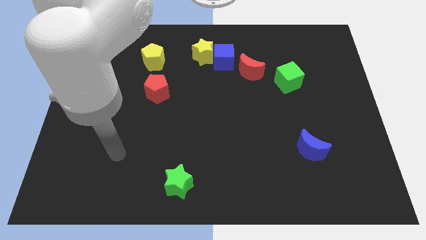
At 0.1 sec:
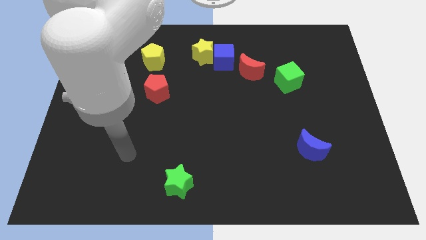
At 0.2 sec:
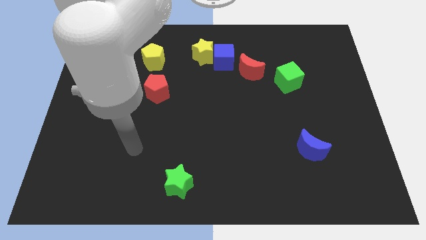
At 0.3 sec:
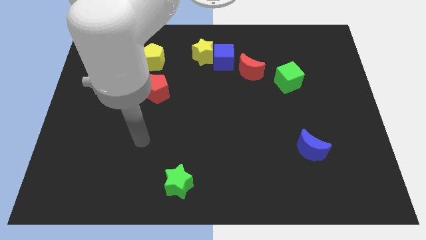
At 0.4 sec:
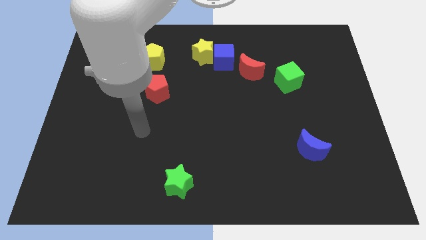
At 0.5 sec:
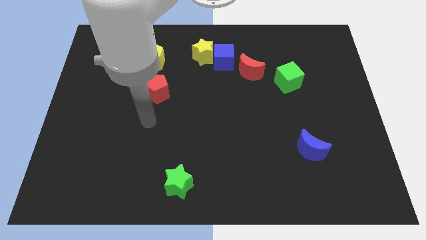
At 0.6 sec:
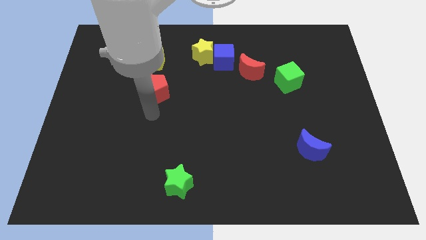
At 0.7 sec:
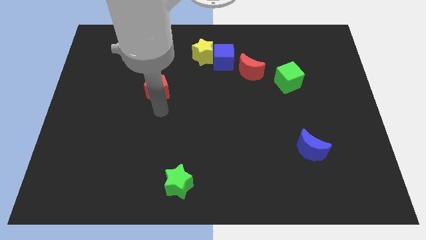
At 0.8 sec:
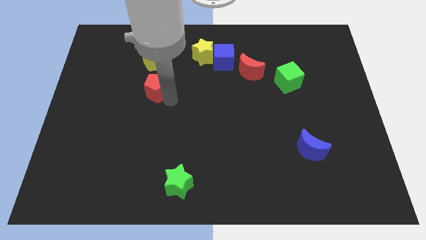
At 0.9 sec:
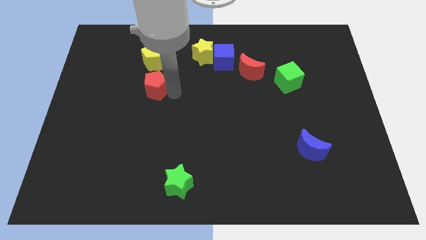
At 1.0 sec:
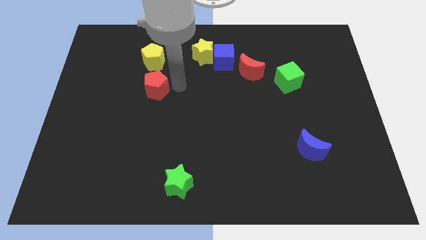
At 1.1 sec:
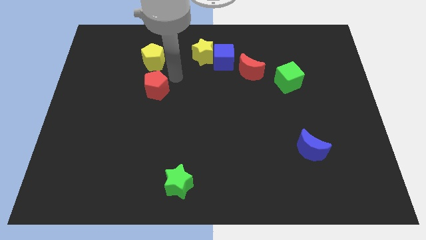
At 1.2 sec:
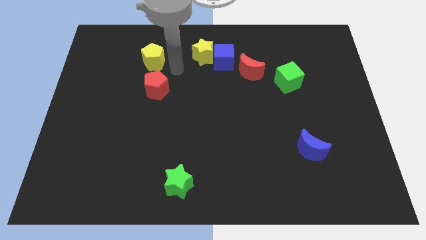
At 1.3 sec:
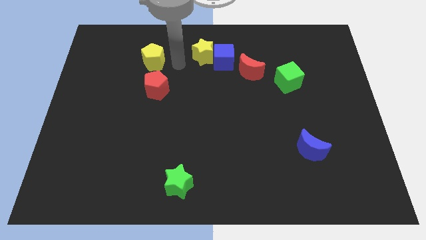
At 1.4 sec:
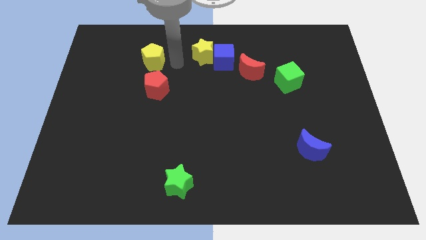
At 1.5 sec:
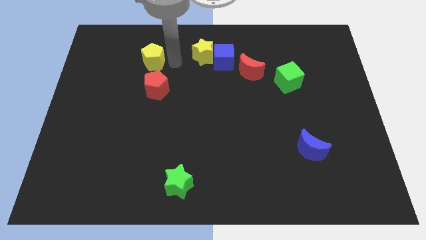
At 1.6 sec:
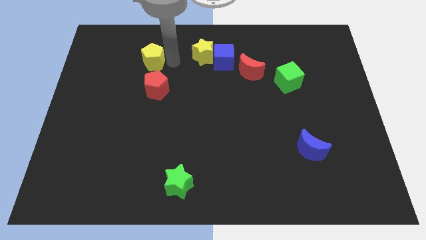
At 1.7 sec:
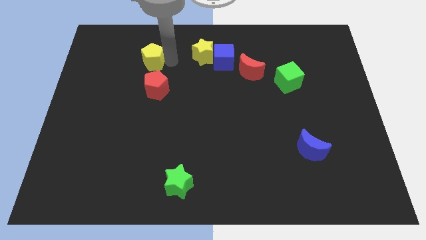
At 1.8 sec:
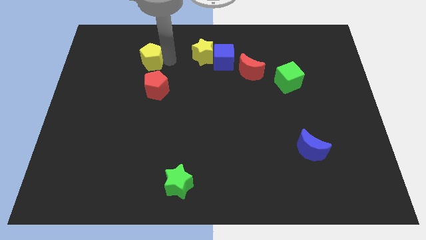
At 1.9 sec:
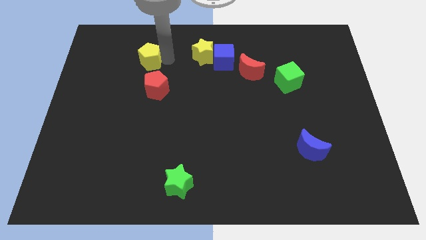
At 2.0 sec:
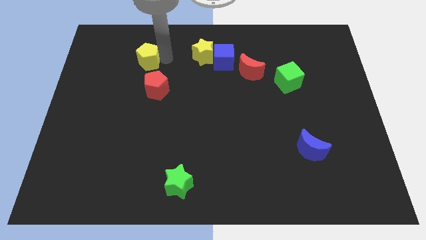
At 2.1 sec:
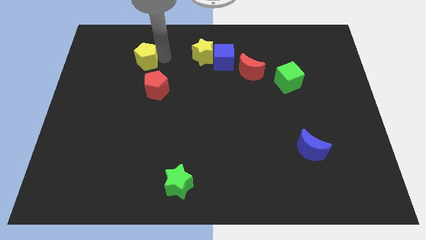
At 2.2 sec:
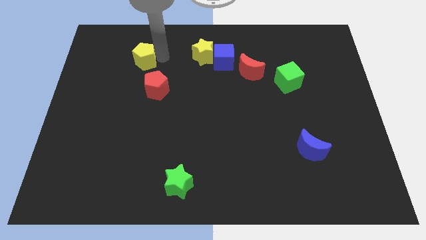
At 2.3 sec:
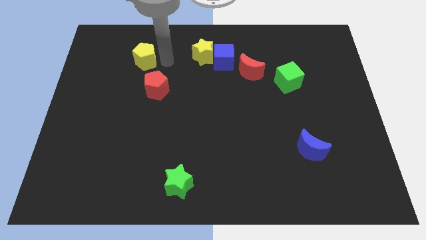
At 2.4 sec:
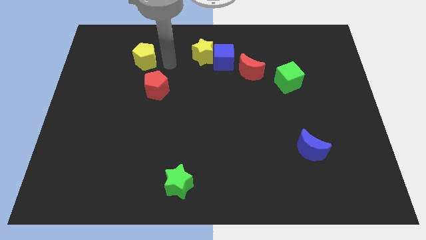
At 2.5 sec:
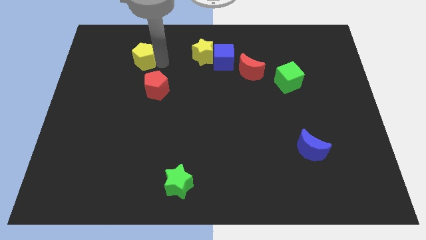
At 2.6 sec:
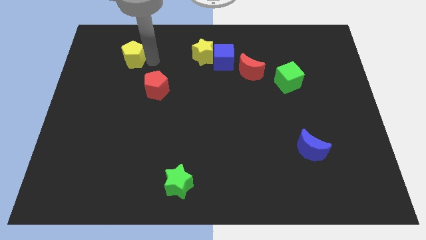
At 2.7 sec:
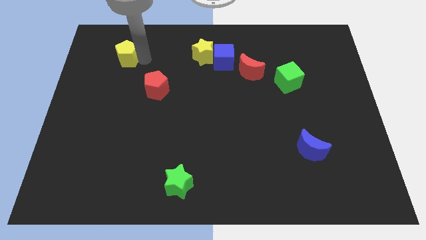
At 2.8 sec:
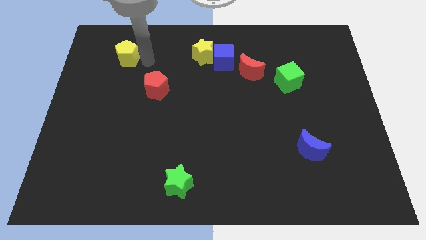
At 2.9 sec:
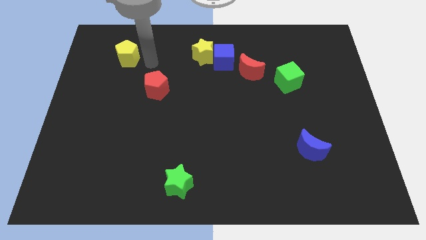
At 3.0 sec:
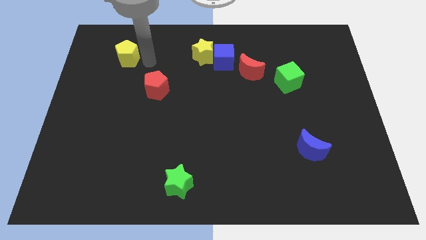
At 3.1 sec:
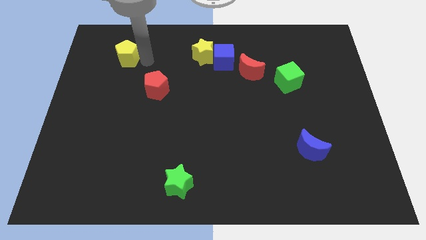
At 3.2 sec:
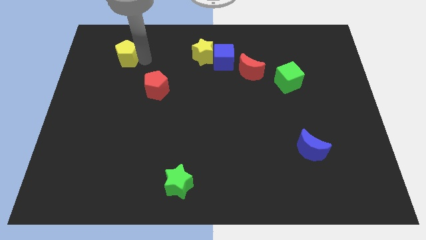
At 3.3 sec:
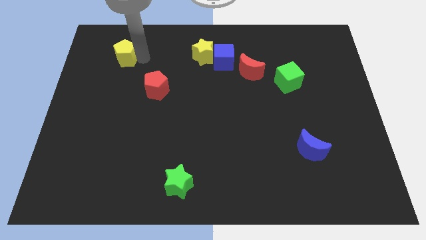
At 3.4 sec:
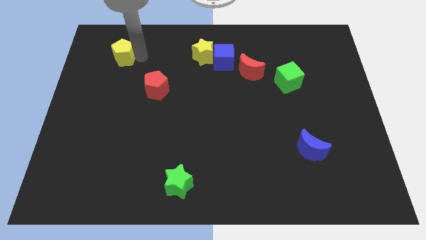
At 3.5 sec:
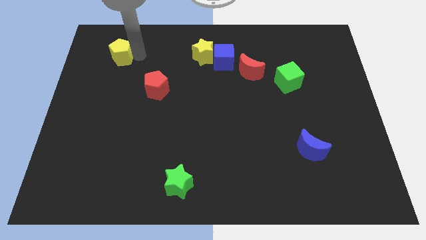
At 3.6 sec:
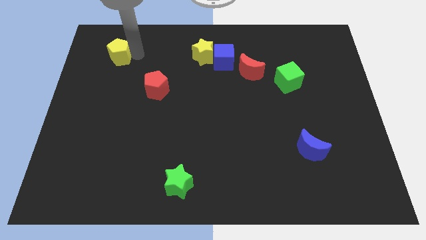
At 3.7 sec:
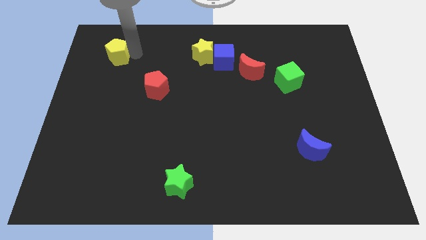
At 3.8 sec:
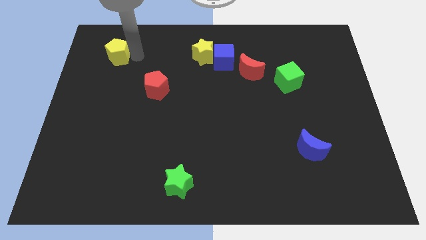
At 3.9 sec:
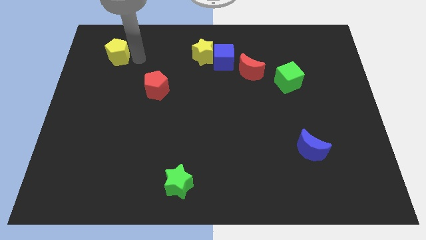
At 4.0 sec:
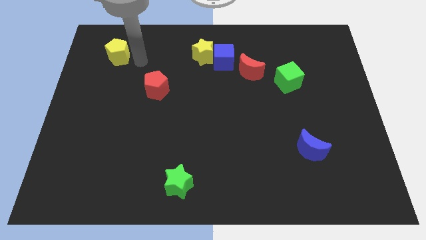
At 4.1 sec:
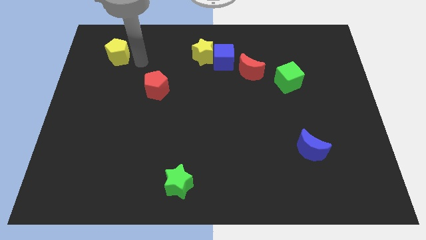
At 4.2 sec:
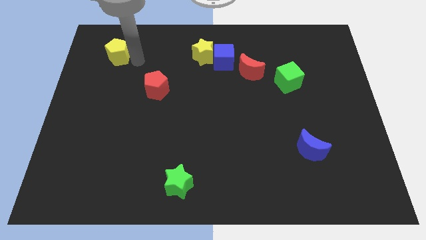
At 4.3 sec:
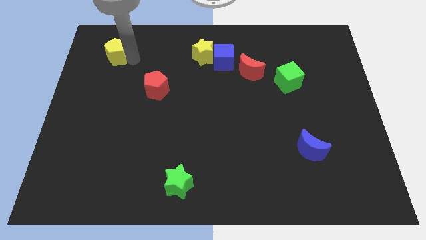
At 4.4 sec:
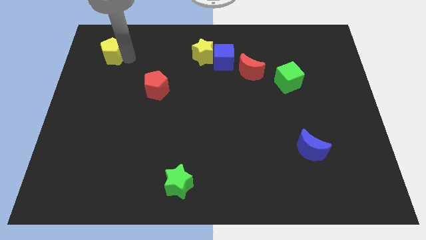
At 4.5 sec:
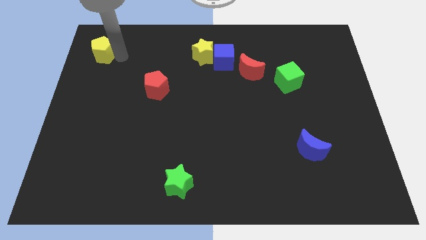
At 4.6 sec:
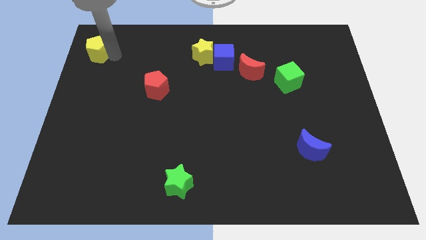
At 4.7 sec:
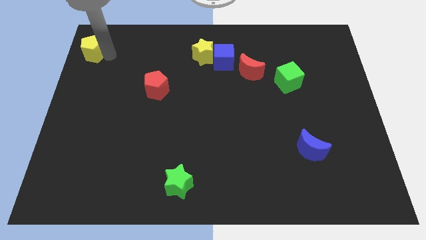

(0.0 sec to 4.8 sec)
move the yellow pentagon to the top left

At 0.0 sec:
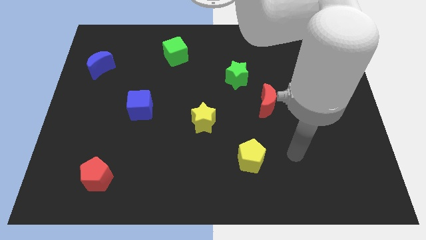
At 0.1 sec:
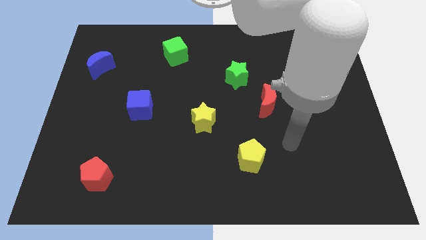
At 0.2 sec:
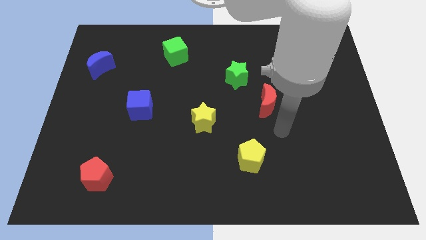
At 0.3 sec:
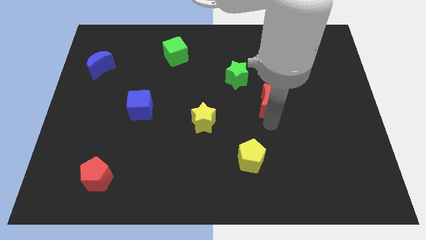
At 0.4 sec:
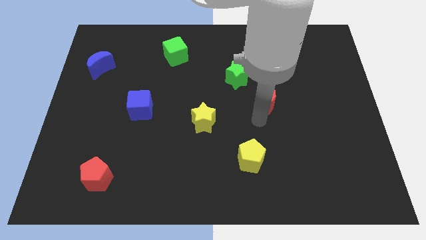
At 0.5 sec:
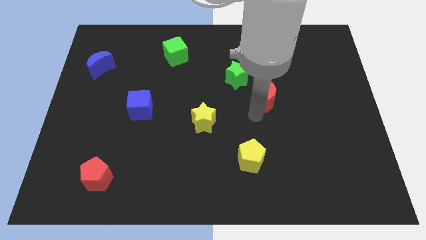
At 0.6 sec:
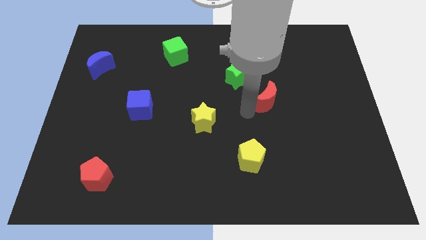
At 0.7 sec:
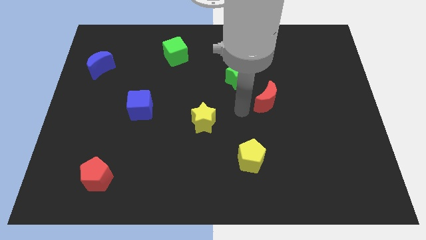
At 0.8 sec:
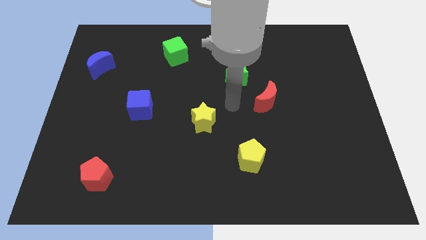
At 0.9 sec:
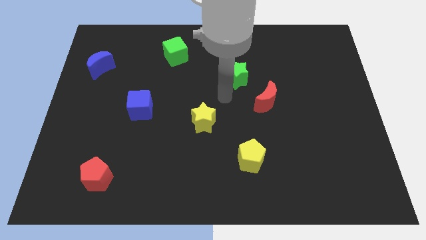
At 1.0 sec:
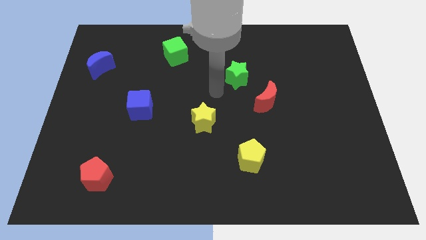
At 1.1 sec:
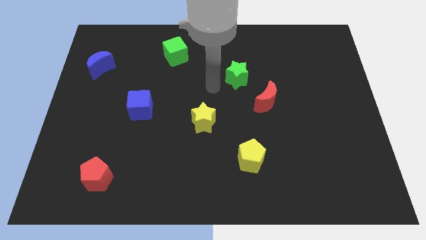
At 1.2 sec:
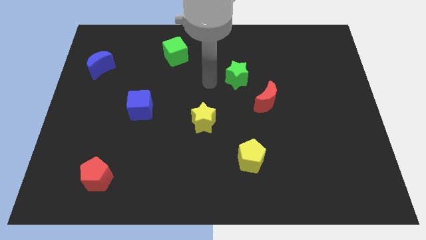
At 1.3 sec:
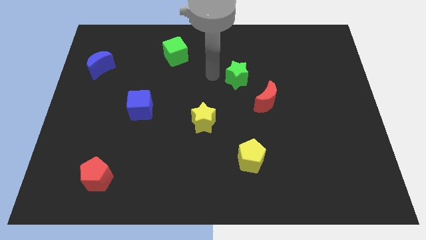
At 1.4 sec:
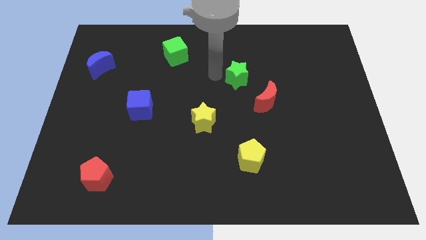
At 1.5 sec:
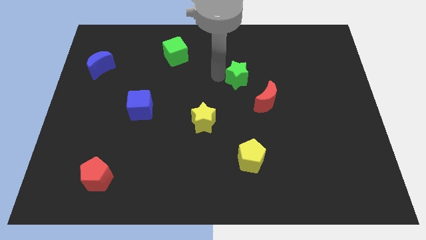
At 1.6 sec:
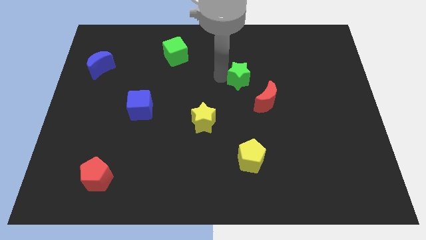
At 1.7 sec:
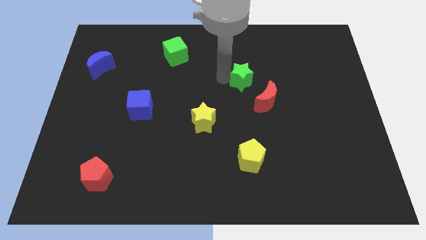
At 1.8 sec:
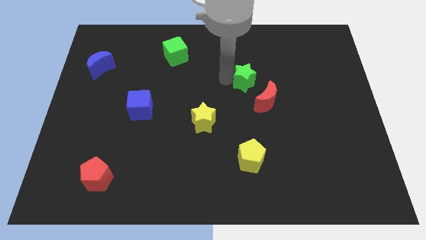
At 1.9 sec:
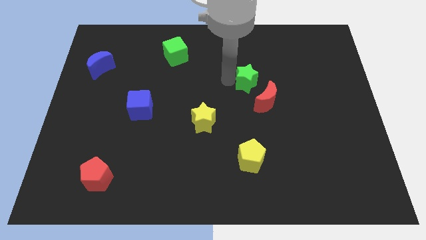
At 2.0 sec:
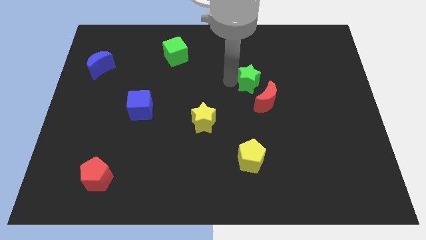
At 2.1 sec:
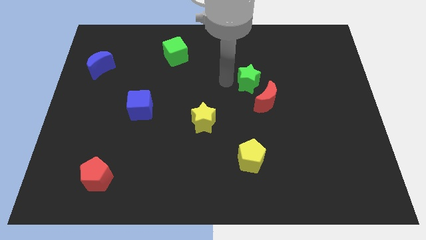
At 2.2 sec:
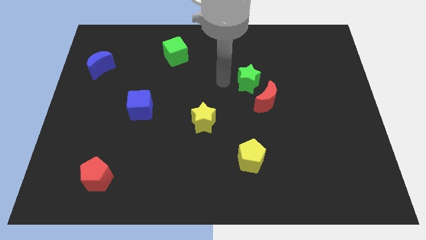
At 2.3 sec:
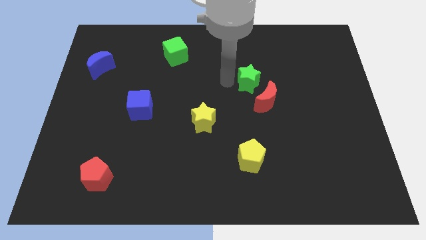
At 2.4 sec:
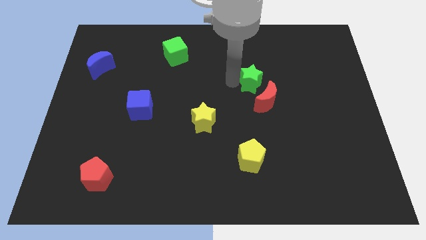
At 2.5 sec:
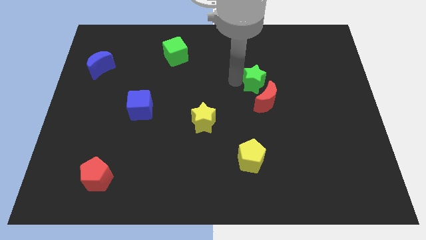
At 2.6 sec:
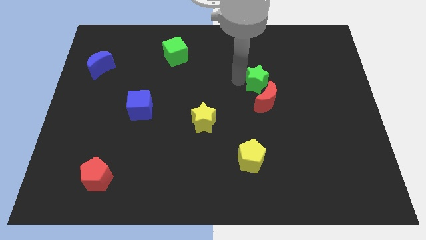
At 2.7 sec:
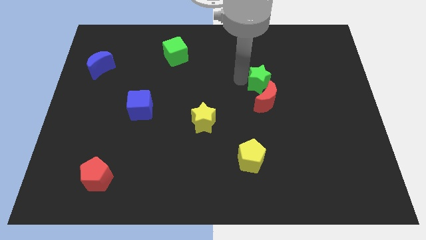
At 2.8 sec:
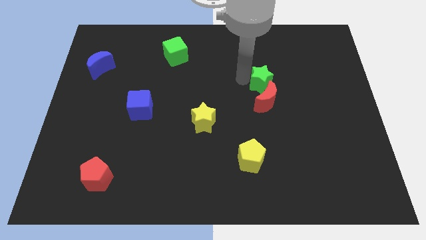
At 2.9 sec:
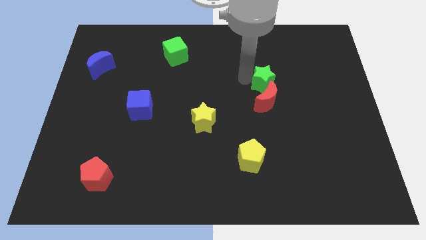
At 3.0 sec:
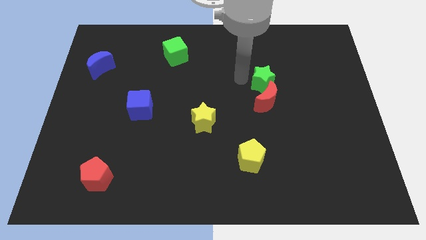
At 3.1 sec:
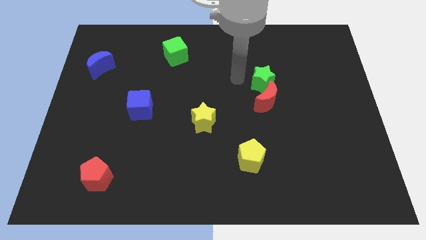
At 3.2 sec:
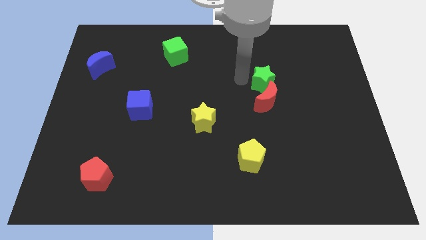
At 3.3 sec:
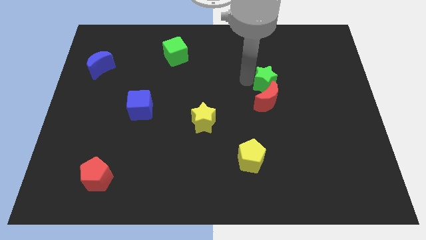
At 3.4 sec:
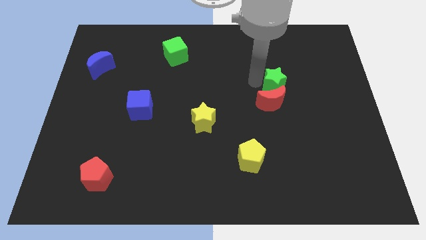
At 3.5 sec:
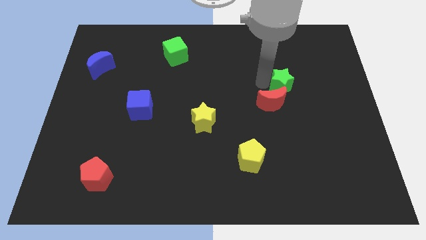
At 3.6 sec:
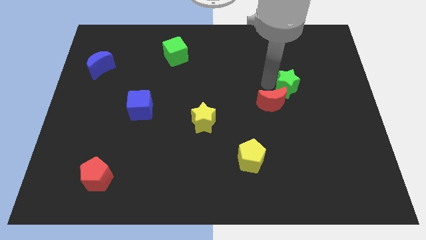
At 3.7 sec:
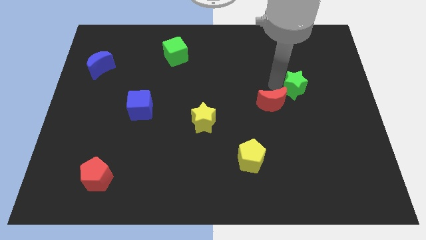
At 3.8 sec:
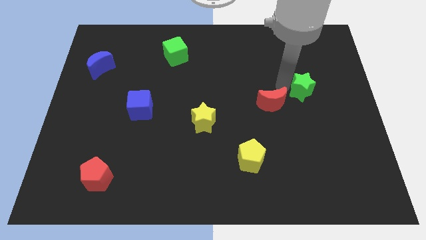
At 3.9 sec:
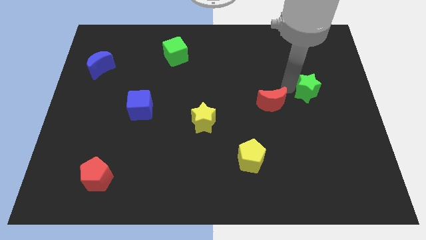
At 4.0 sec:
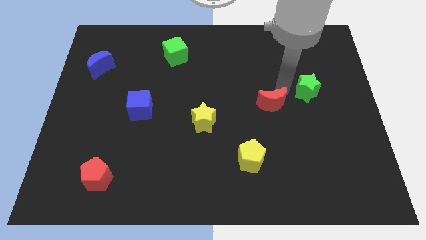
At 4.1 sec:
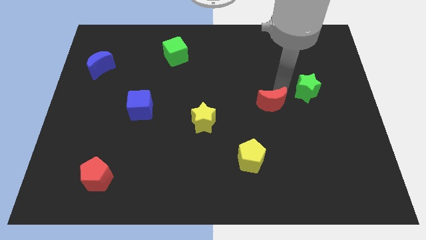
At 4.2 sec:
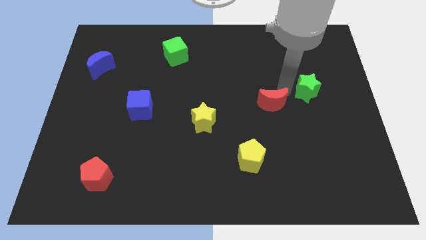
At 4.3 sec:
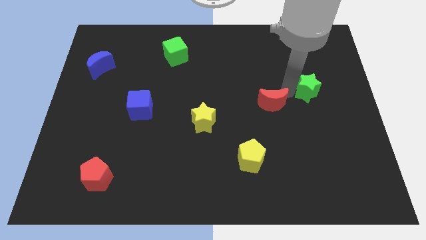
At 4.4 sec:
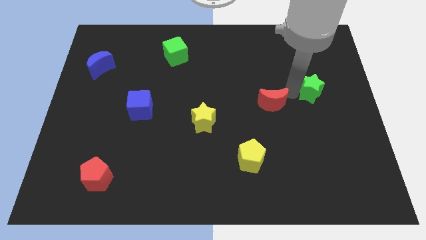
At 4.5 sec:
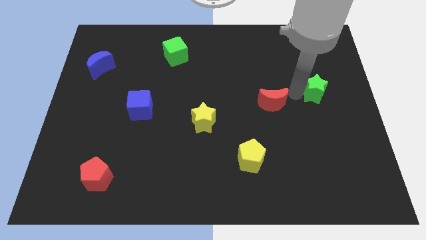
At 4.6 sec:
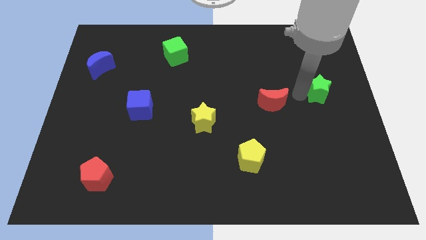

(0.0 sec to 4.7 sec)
slide the green star to the right side of the board
